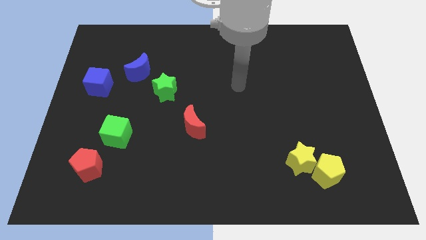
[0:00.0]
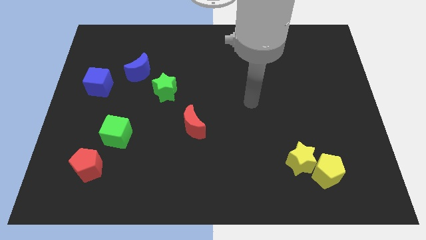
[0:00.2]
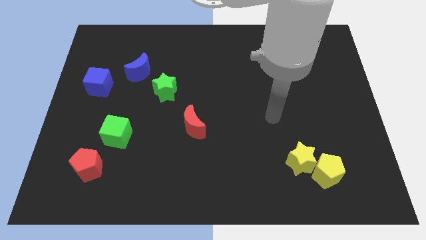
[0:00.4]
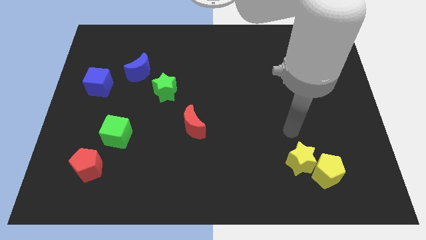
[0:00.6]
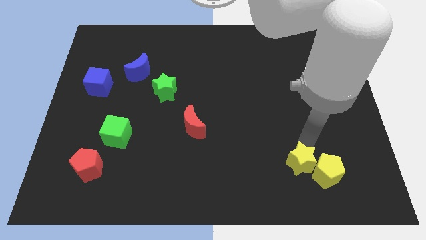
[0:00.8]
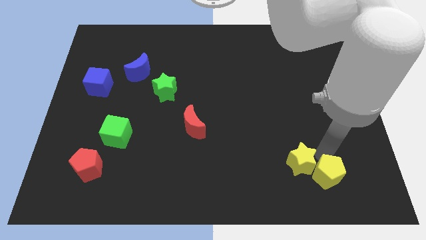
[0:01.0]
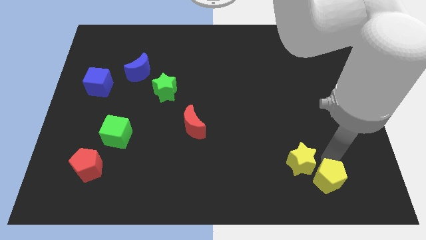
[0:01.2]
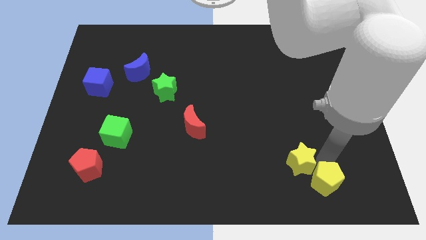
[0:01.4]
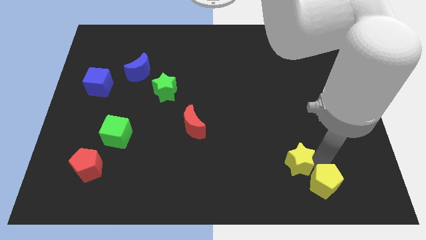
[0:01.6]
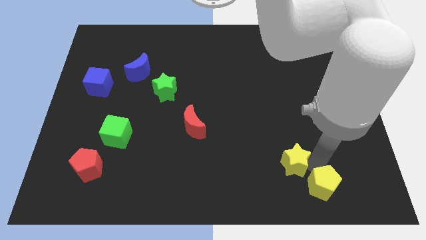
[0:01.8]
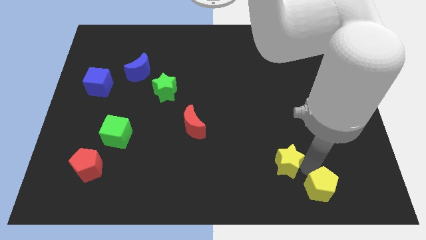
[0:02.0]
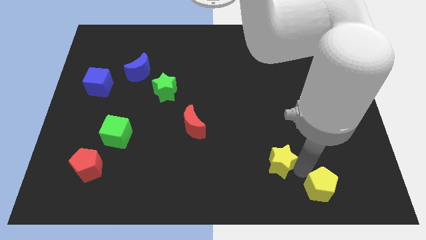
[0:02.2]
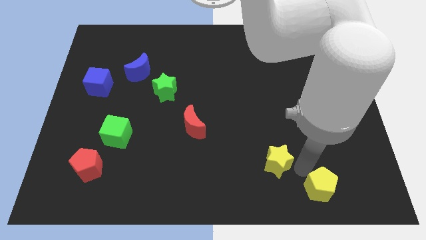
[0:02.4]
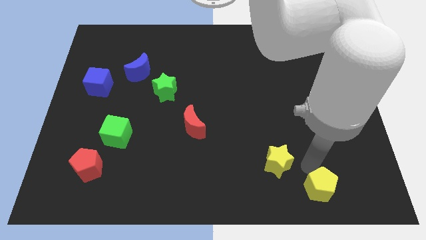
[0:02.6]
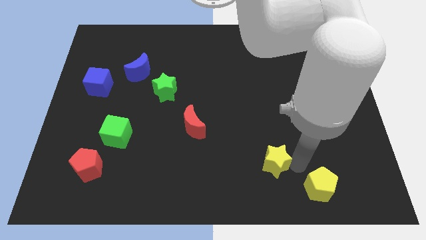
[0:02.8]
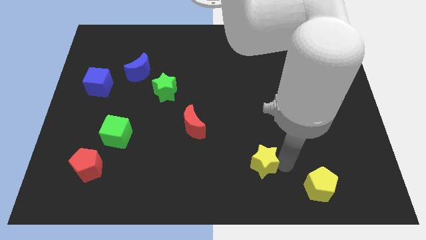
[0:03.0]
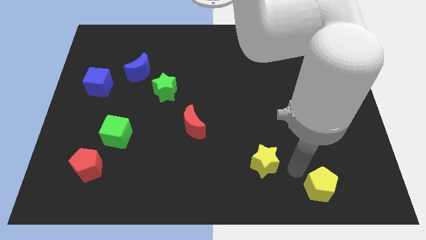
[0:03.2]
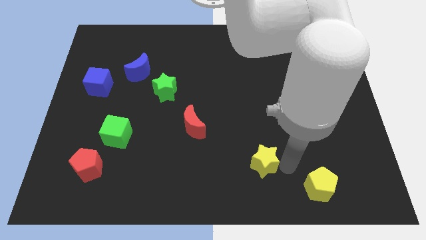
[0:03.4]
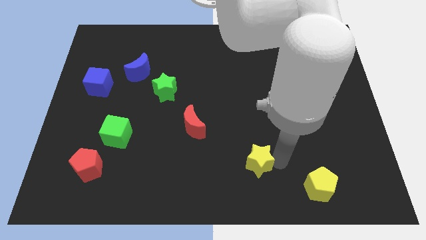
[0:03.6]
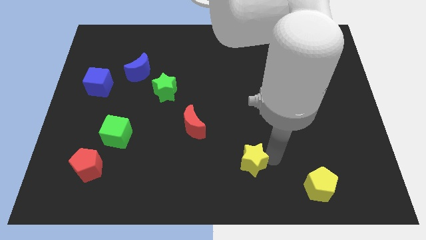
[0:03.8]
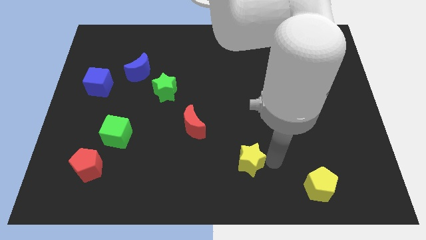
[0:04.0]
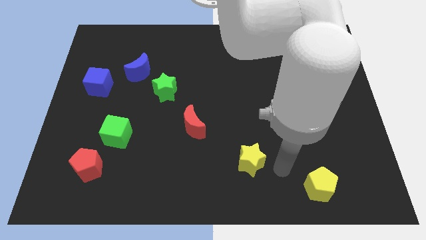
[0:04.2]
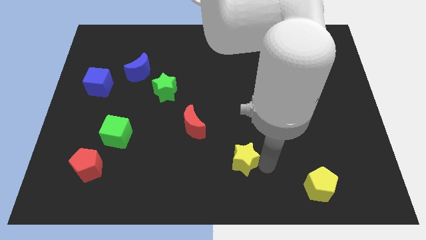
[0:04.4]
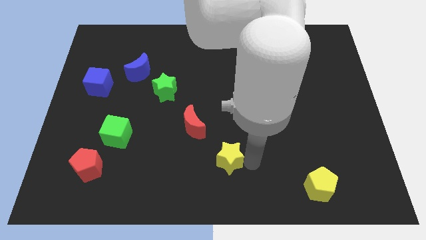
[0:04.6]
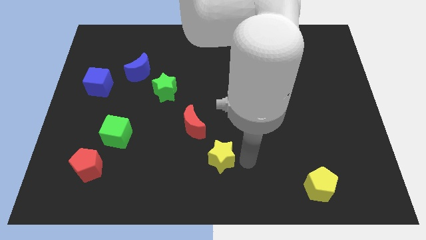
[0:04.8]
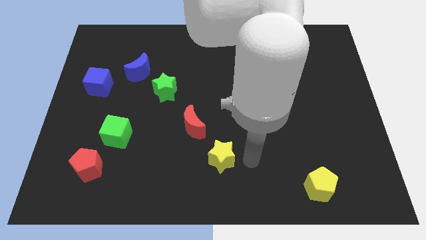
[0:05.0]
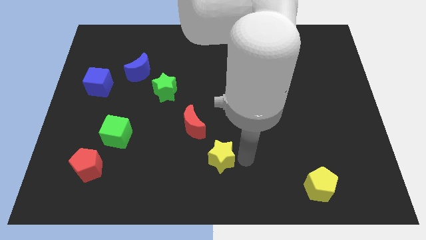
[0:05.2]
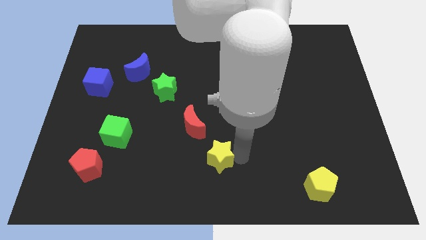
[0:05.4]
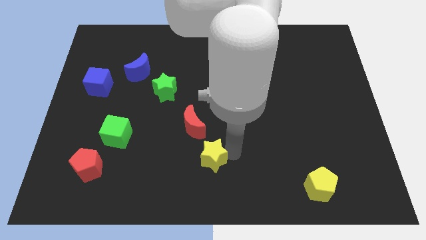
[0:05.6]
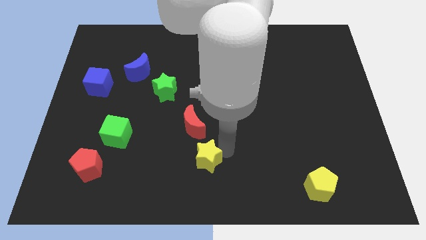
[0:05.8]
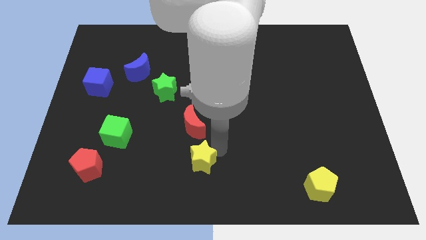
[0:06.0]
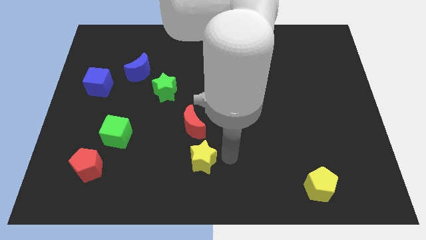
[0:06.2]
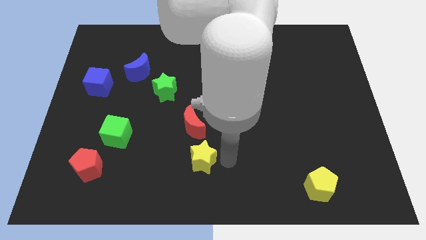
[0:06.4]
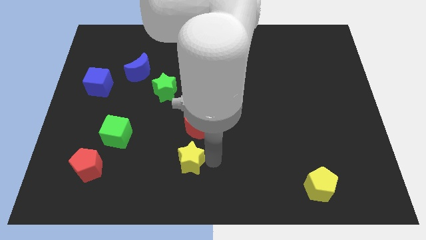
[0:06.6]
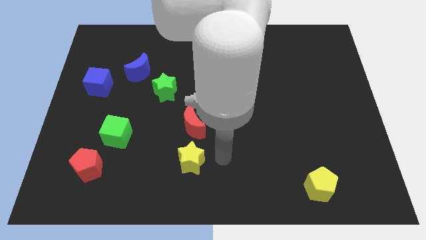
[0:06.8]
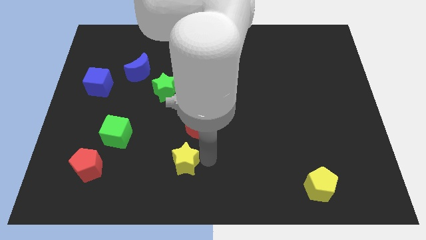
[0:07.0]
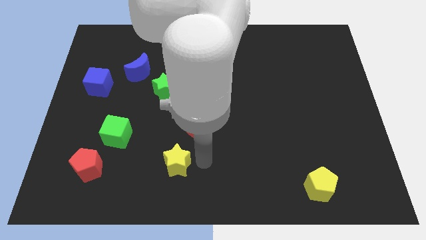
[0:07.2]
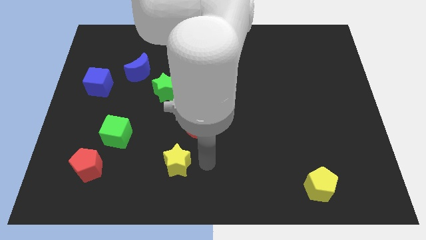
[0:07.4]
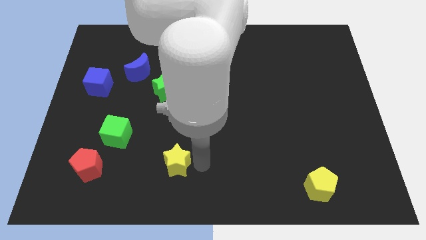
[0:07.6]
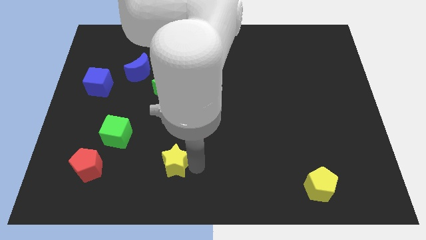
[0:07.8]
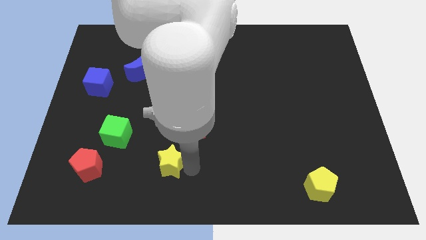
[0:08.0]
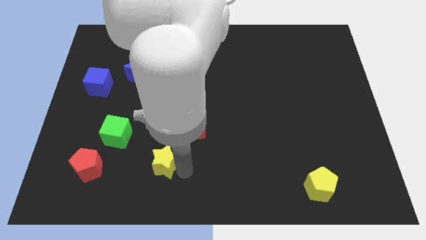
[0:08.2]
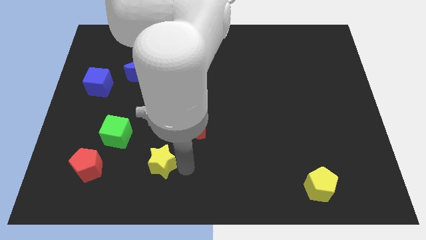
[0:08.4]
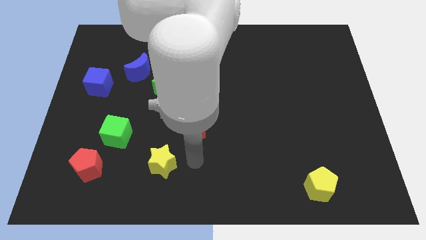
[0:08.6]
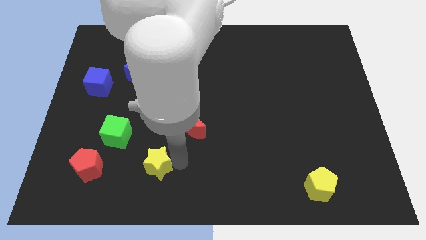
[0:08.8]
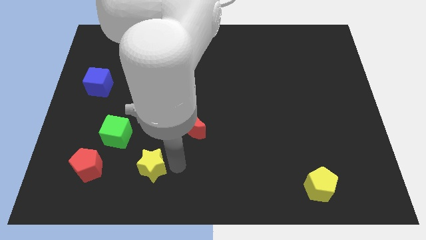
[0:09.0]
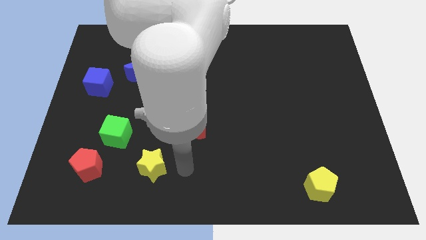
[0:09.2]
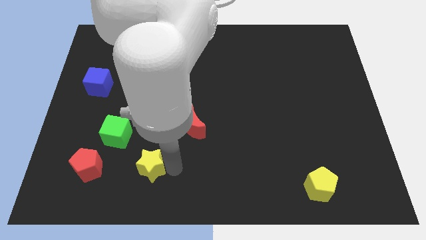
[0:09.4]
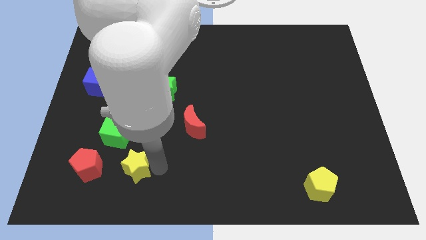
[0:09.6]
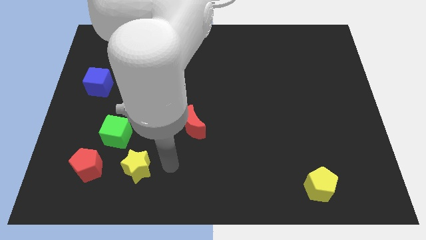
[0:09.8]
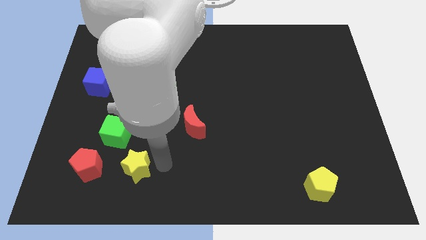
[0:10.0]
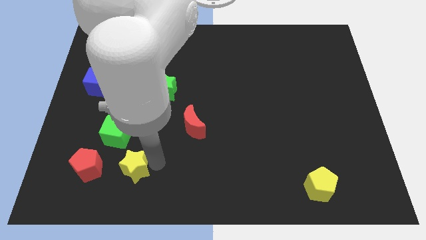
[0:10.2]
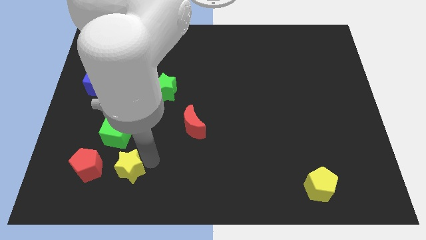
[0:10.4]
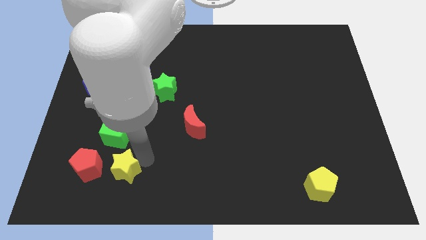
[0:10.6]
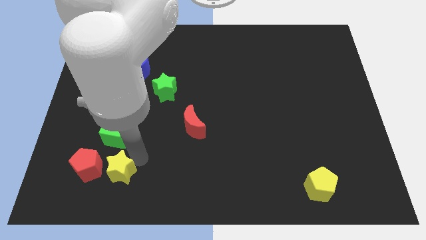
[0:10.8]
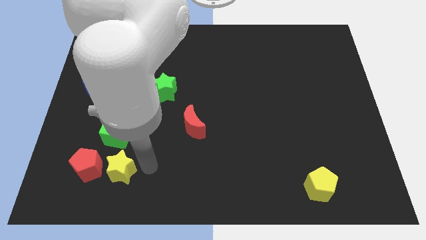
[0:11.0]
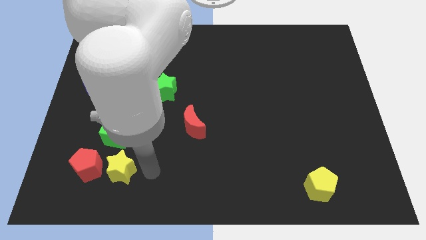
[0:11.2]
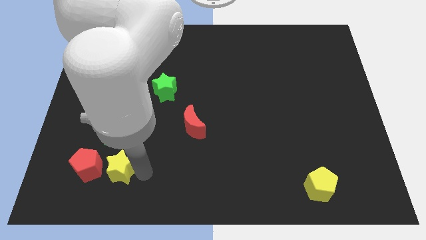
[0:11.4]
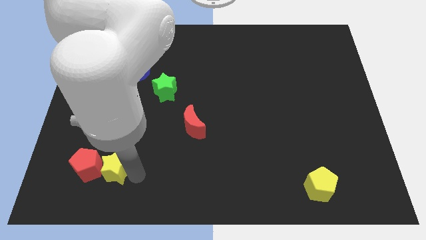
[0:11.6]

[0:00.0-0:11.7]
push the yellow star to the red pentagon

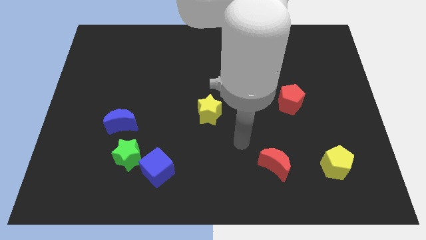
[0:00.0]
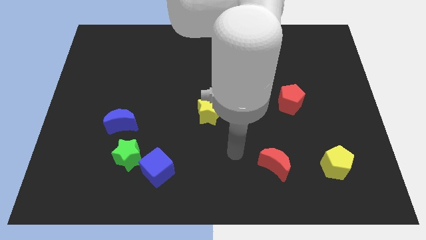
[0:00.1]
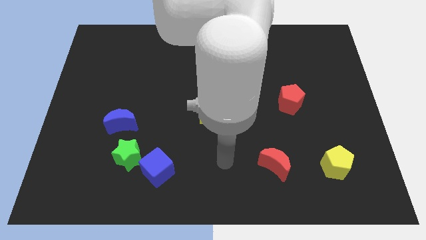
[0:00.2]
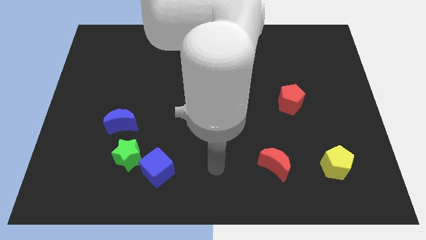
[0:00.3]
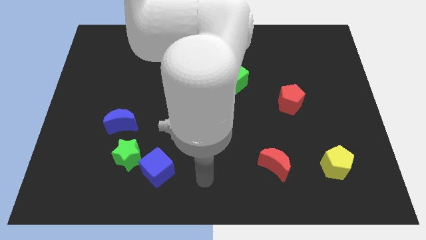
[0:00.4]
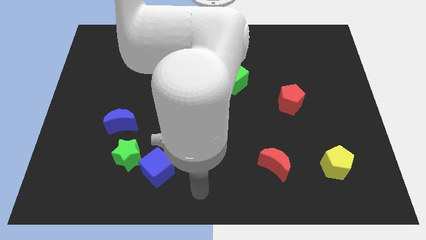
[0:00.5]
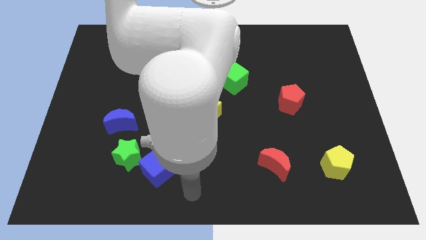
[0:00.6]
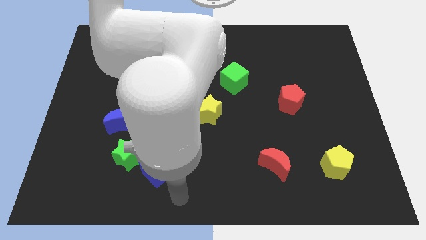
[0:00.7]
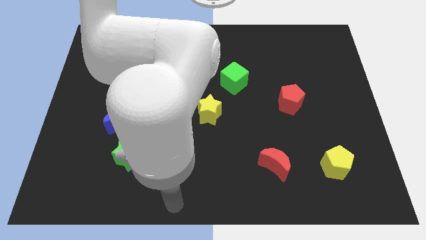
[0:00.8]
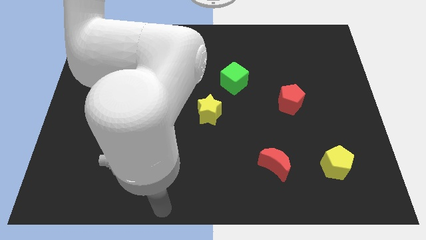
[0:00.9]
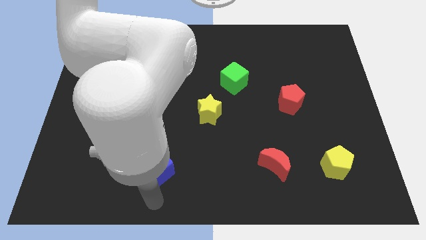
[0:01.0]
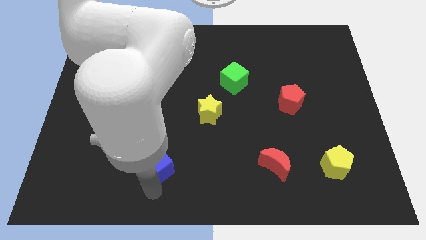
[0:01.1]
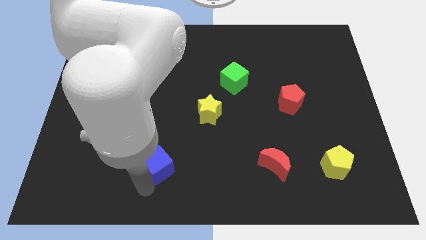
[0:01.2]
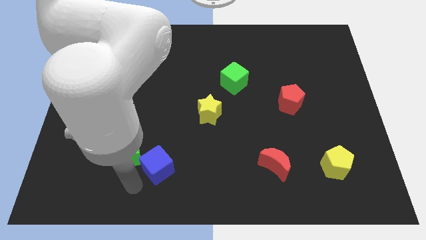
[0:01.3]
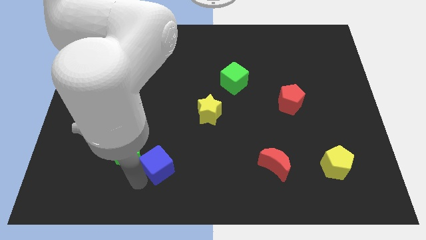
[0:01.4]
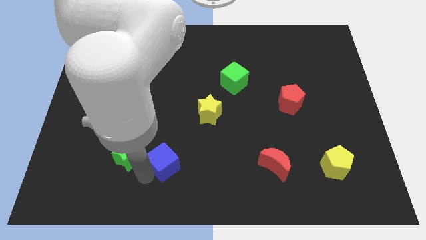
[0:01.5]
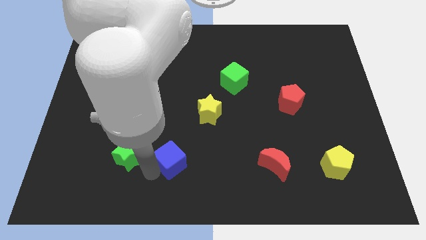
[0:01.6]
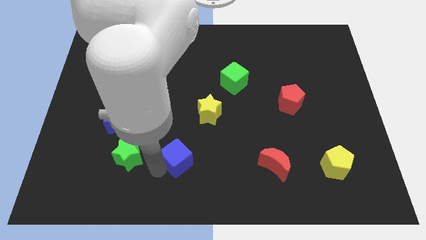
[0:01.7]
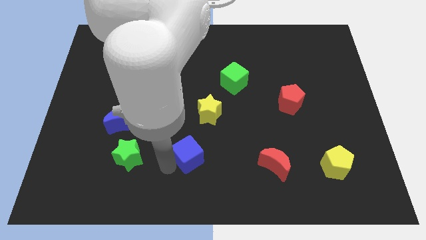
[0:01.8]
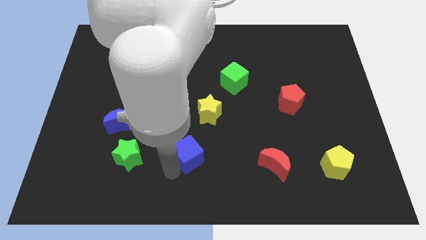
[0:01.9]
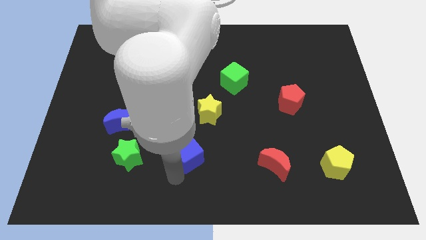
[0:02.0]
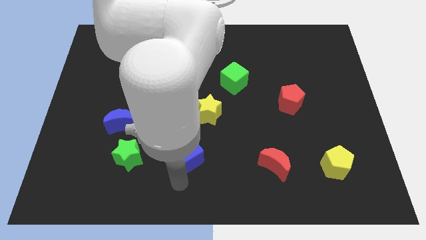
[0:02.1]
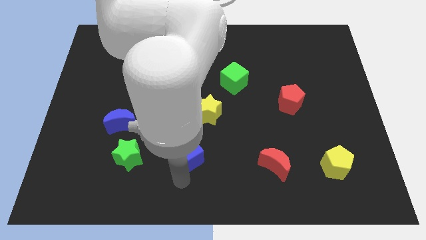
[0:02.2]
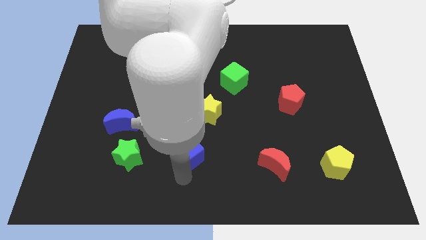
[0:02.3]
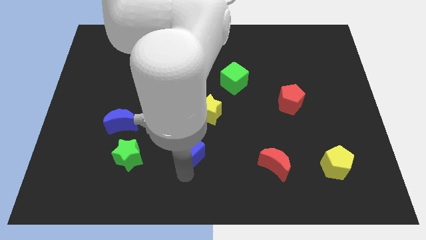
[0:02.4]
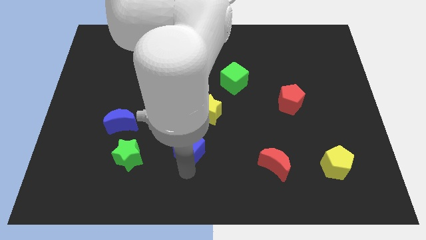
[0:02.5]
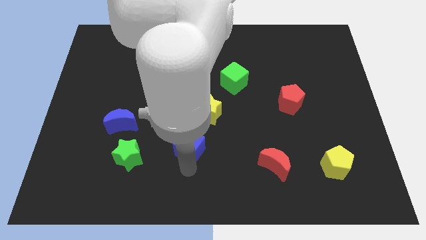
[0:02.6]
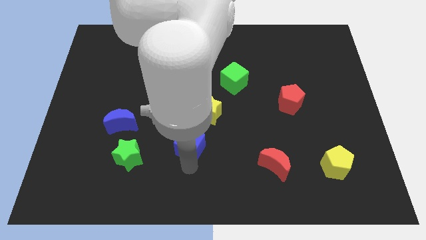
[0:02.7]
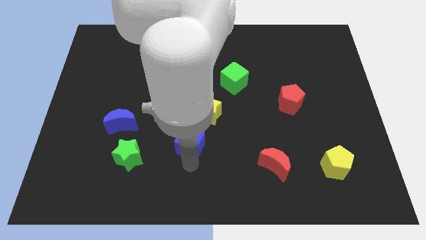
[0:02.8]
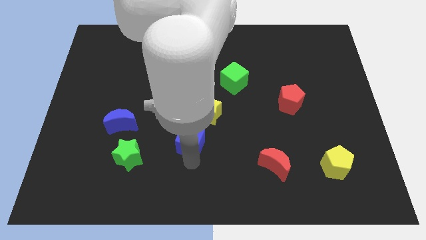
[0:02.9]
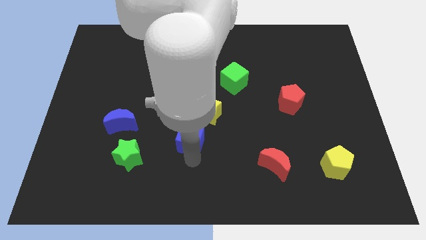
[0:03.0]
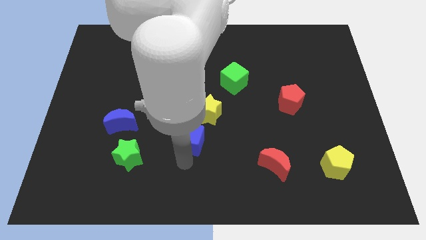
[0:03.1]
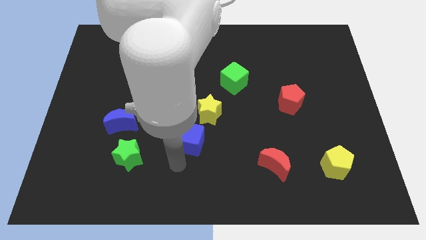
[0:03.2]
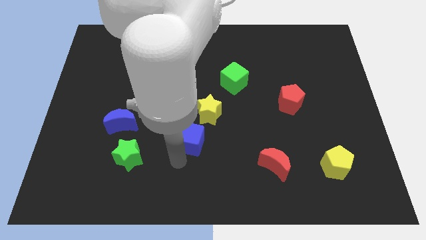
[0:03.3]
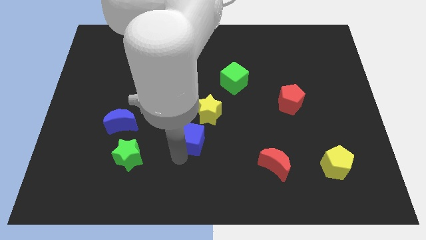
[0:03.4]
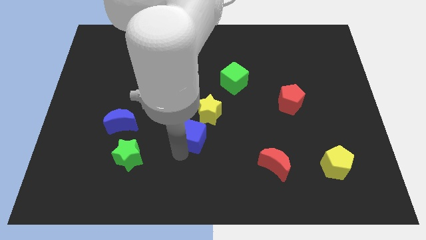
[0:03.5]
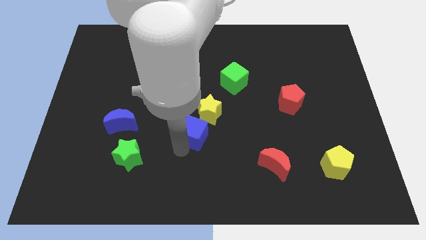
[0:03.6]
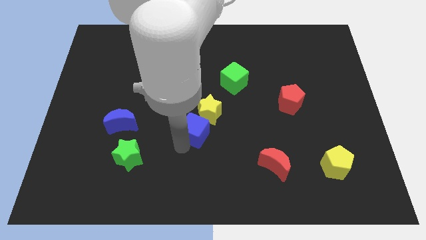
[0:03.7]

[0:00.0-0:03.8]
slide the blue cube close to the yellow star
